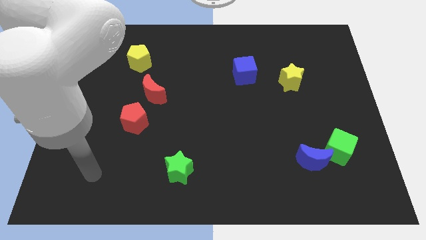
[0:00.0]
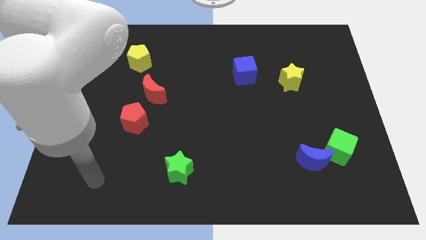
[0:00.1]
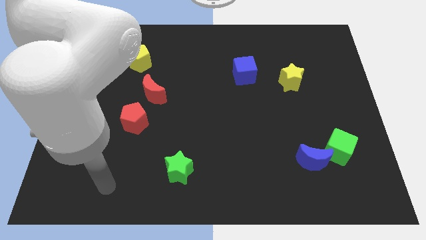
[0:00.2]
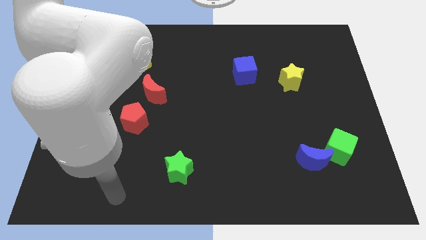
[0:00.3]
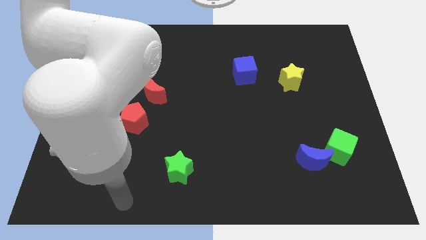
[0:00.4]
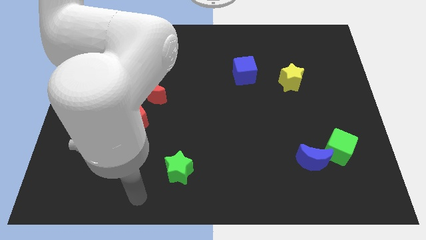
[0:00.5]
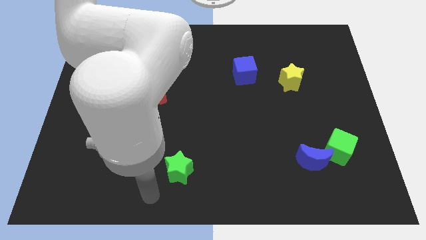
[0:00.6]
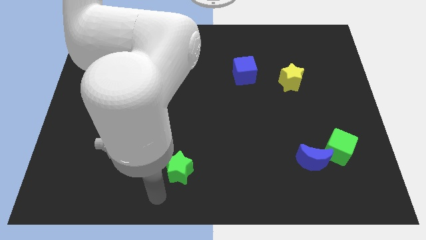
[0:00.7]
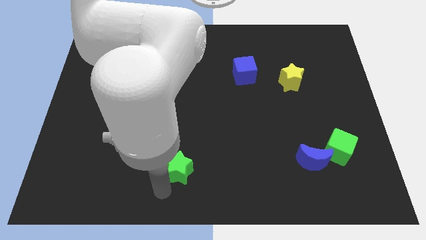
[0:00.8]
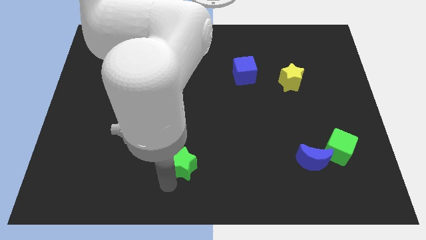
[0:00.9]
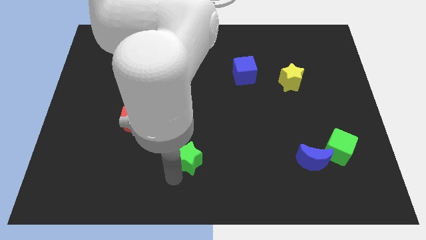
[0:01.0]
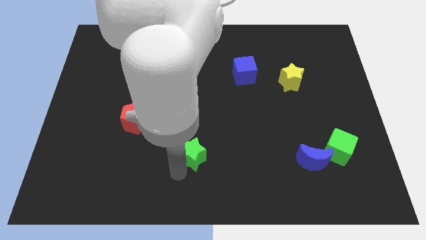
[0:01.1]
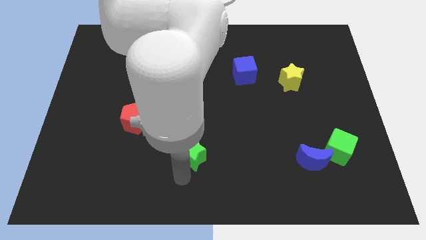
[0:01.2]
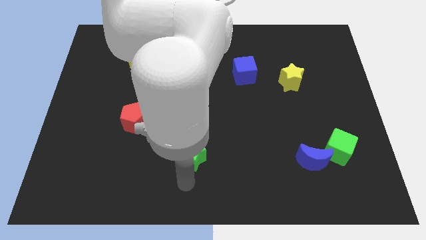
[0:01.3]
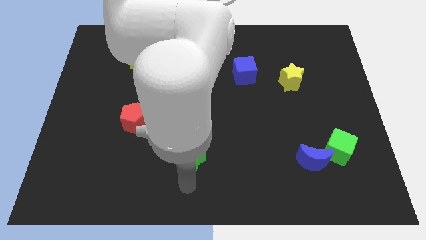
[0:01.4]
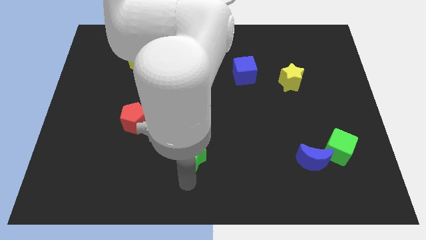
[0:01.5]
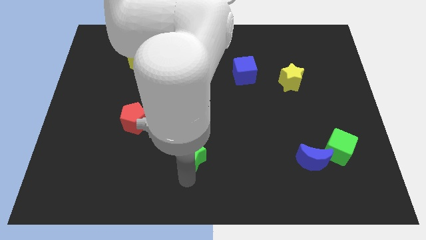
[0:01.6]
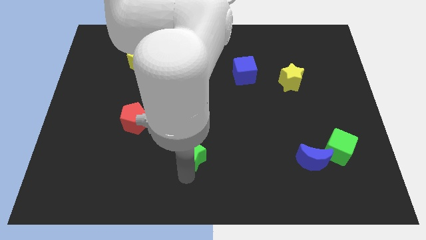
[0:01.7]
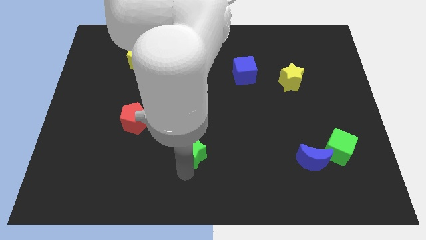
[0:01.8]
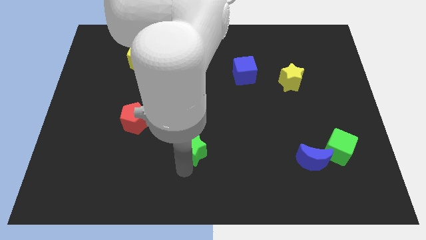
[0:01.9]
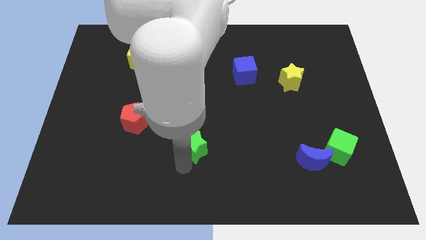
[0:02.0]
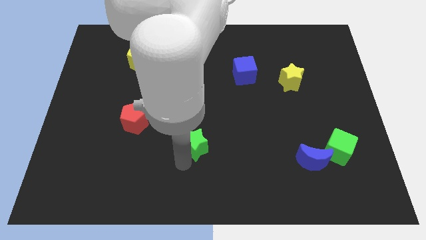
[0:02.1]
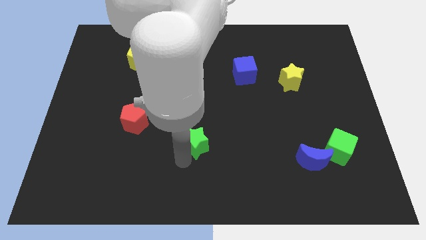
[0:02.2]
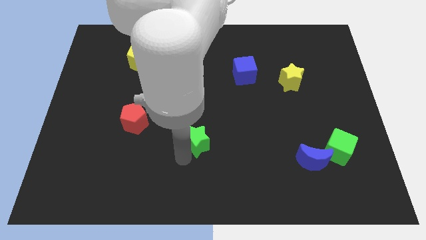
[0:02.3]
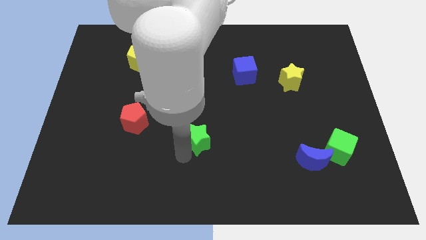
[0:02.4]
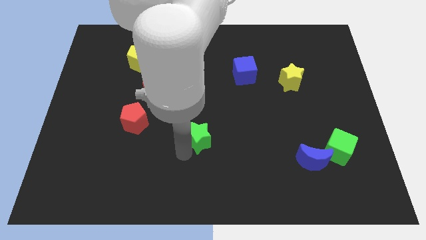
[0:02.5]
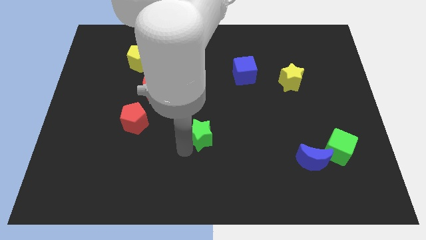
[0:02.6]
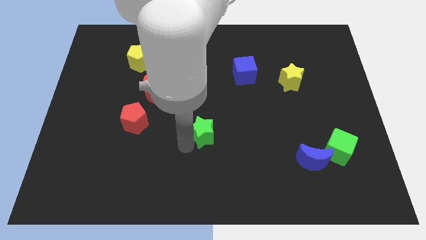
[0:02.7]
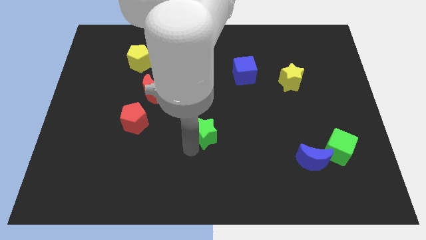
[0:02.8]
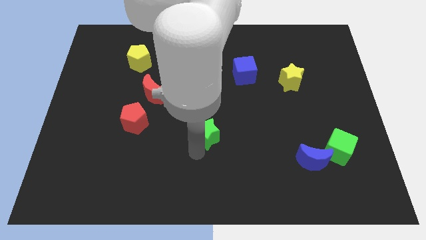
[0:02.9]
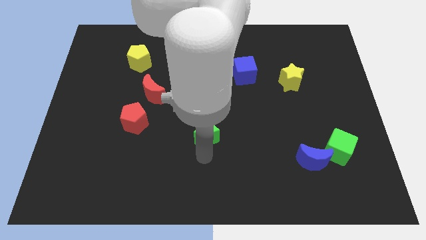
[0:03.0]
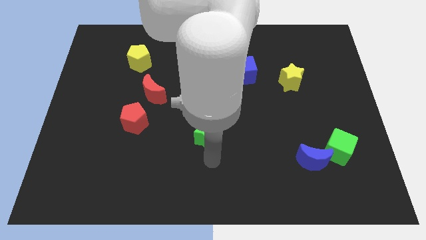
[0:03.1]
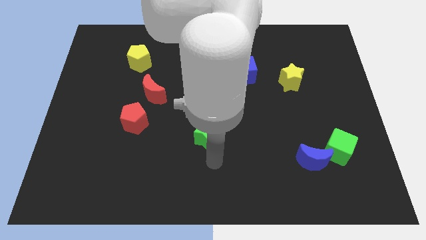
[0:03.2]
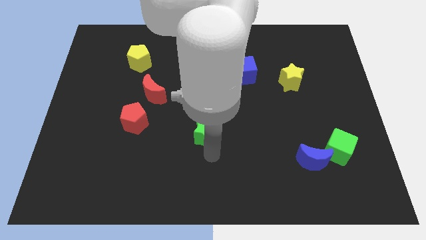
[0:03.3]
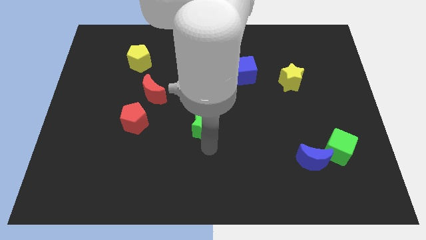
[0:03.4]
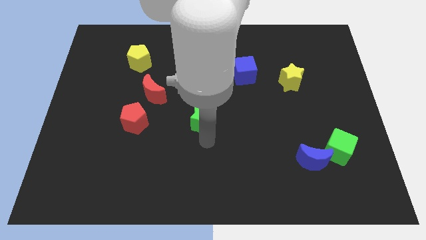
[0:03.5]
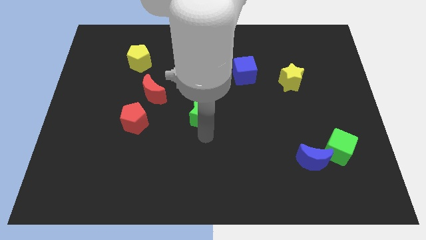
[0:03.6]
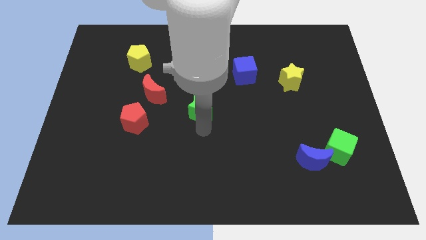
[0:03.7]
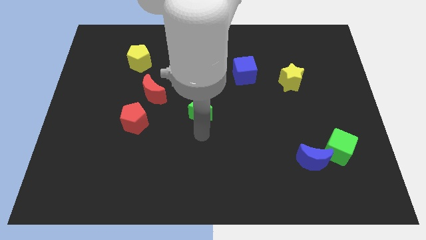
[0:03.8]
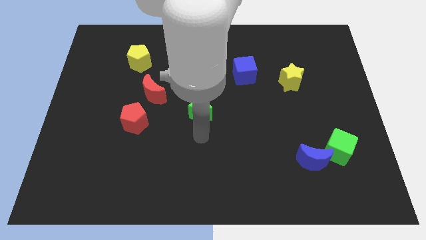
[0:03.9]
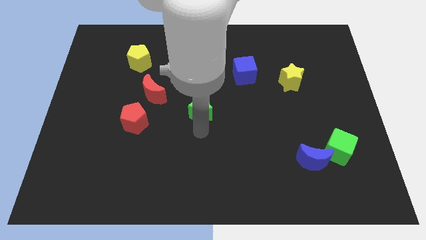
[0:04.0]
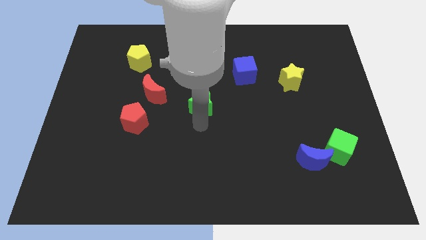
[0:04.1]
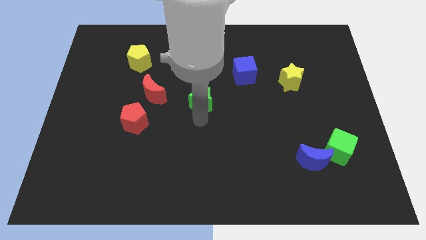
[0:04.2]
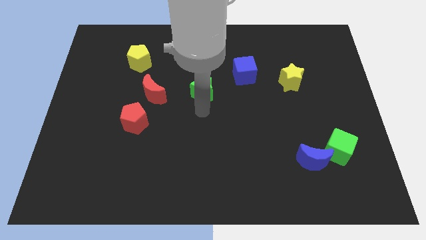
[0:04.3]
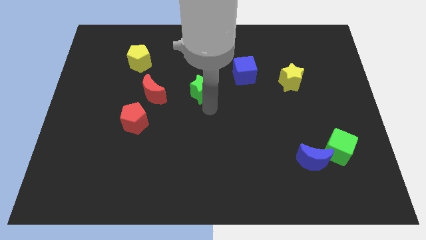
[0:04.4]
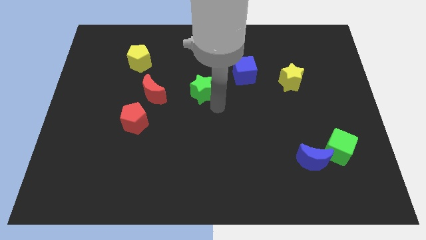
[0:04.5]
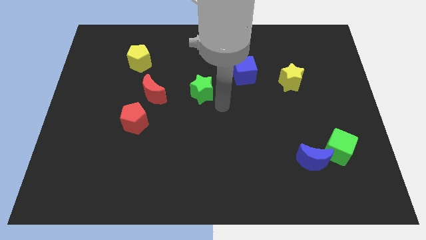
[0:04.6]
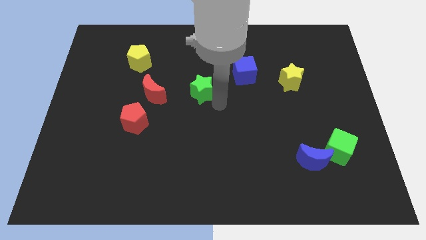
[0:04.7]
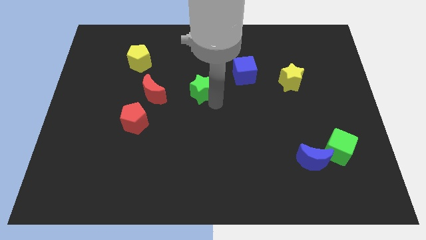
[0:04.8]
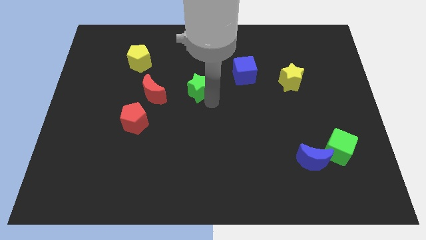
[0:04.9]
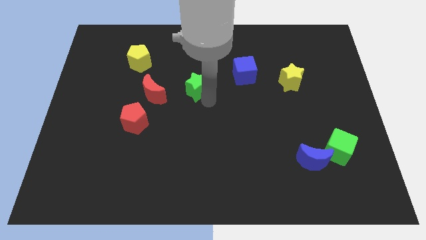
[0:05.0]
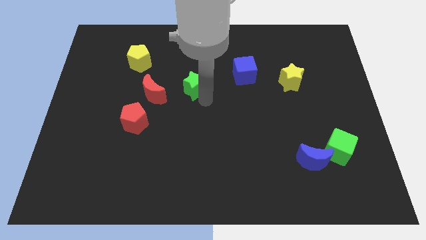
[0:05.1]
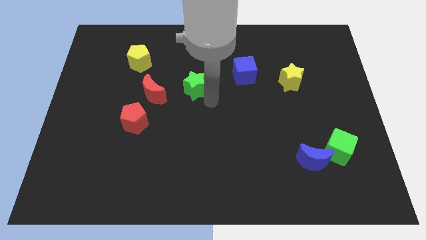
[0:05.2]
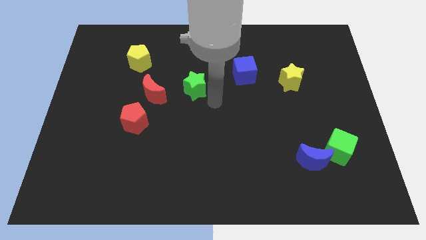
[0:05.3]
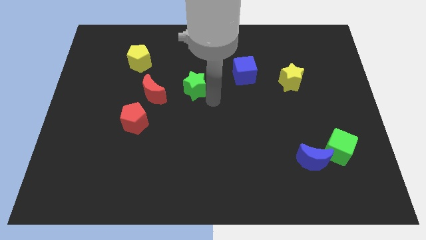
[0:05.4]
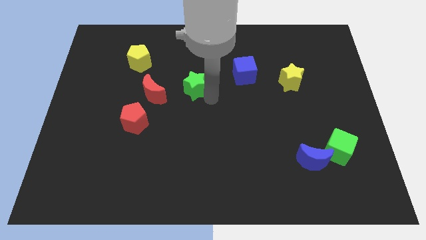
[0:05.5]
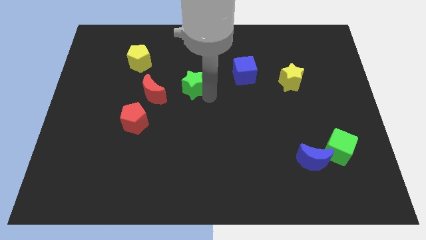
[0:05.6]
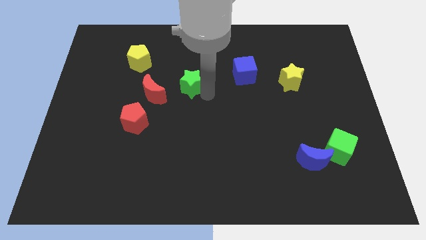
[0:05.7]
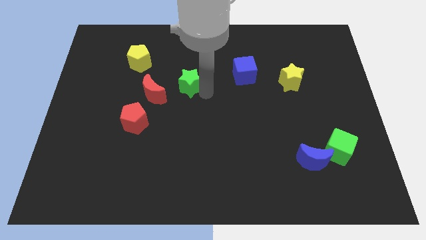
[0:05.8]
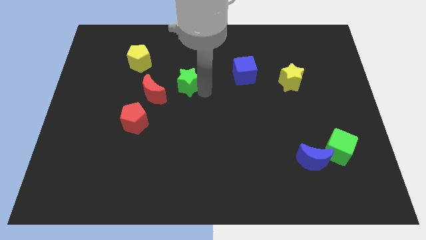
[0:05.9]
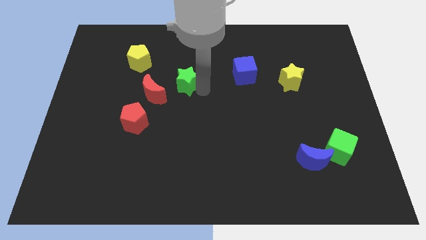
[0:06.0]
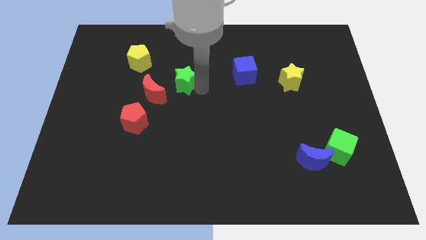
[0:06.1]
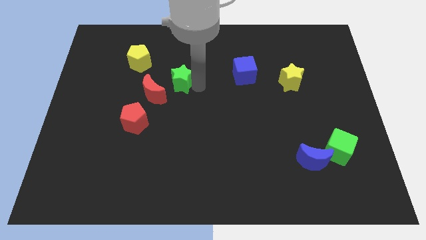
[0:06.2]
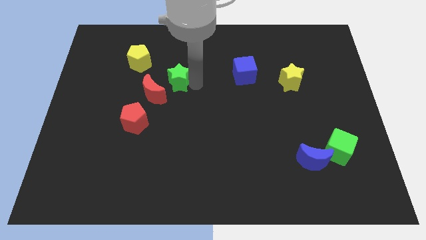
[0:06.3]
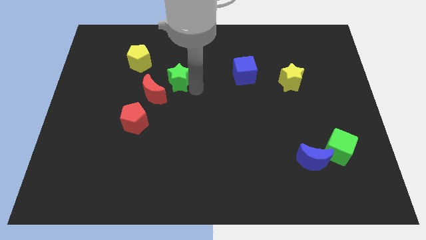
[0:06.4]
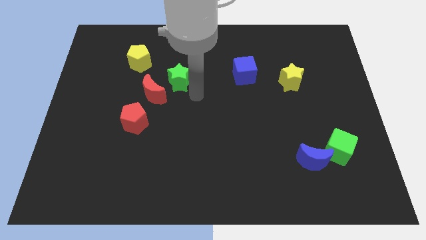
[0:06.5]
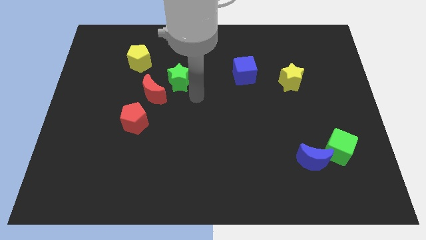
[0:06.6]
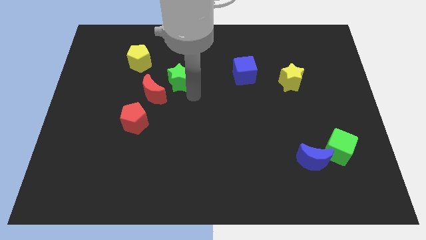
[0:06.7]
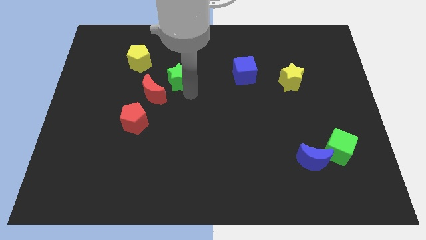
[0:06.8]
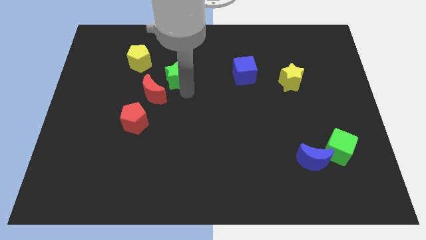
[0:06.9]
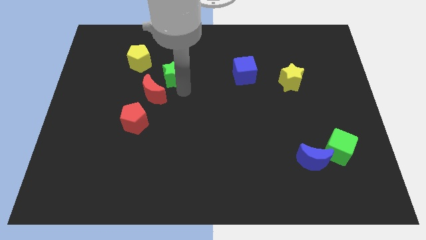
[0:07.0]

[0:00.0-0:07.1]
slide the green star above the red moon

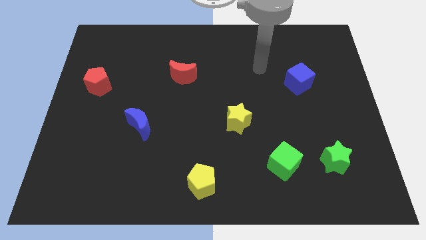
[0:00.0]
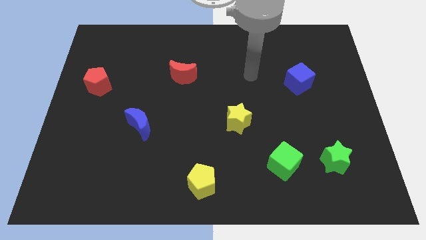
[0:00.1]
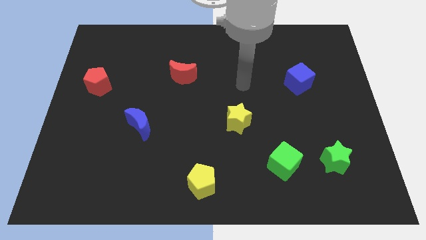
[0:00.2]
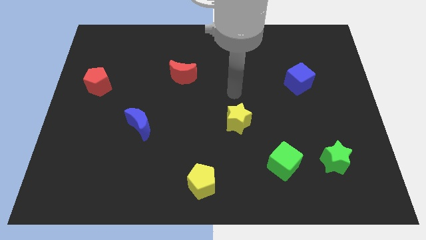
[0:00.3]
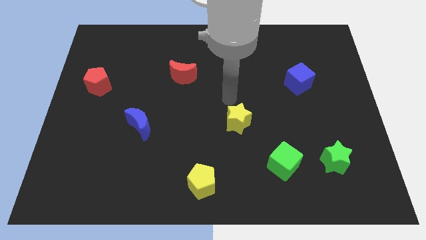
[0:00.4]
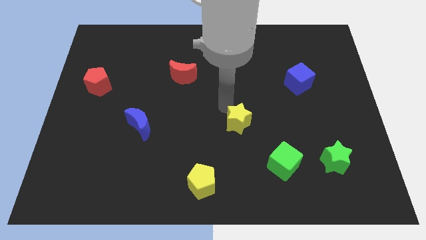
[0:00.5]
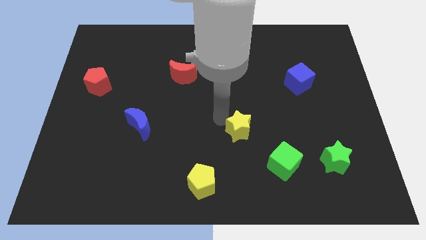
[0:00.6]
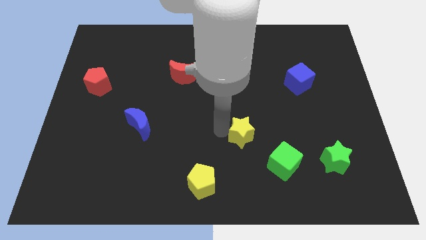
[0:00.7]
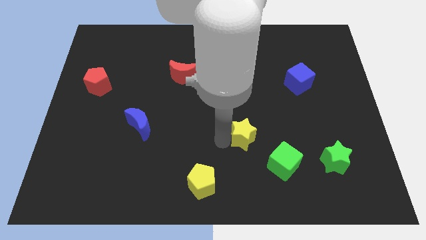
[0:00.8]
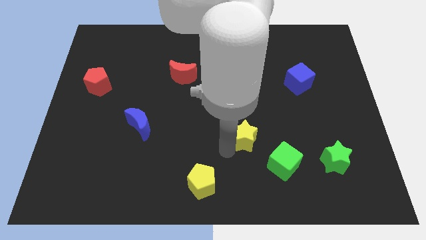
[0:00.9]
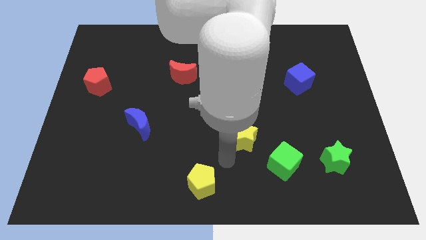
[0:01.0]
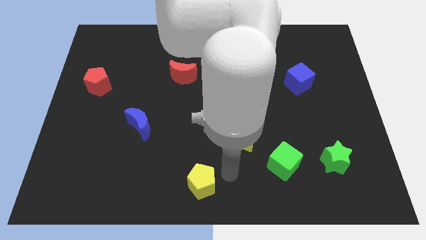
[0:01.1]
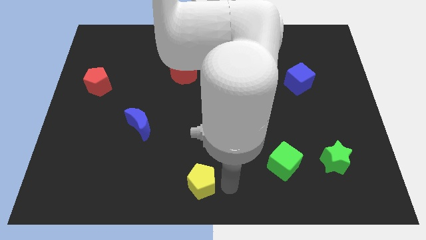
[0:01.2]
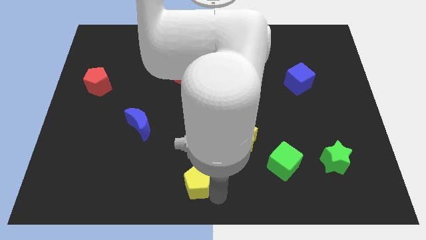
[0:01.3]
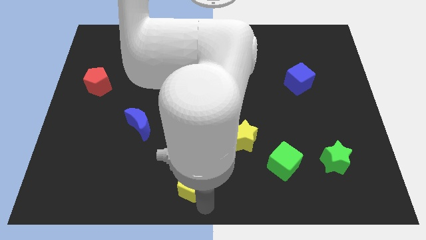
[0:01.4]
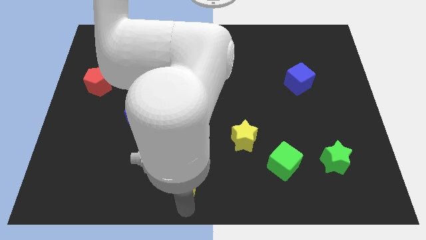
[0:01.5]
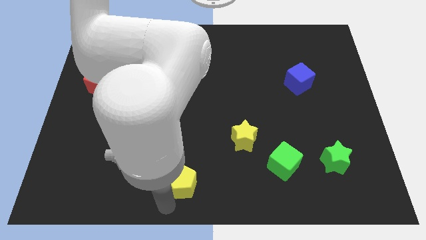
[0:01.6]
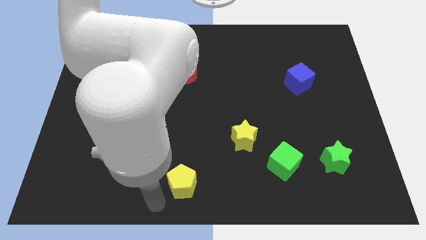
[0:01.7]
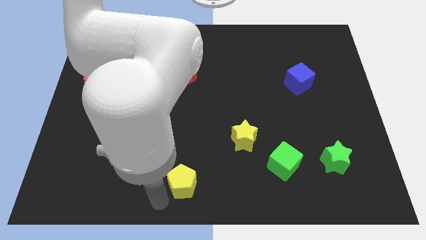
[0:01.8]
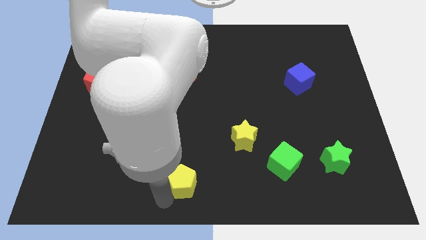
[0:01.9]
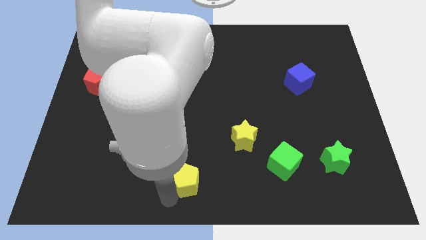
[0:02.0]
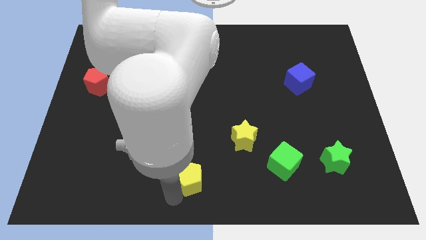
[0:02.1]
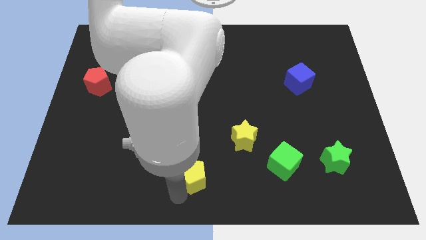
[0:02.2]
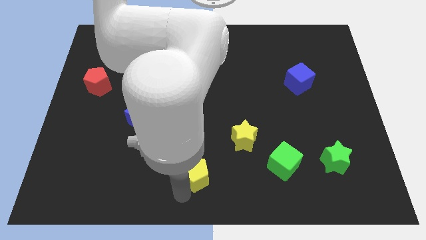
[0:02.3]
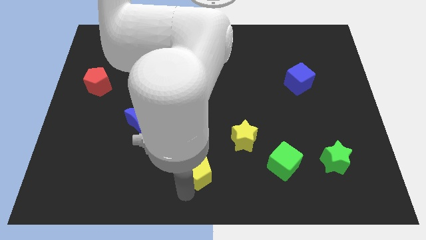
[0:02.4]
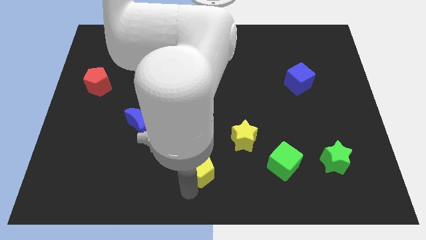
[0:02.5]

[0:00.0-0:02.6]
push the yellow pentagon to the bottom left side of the yellow star
